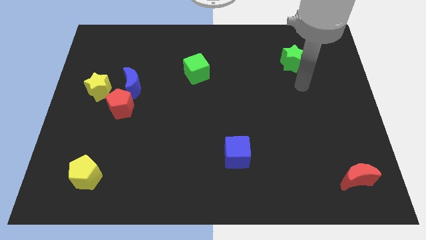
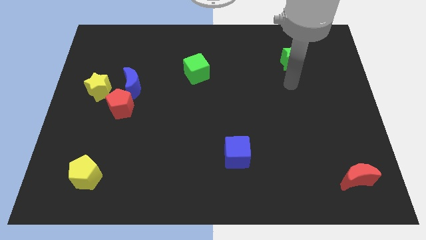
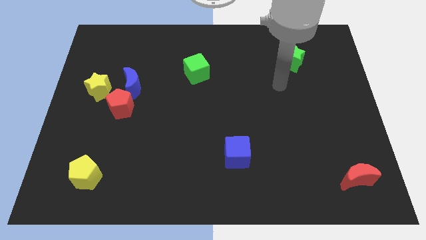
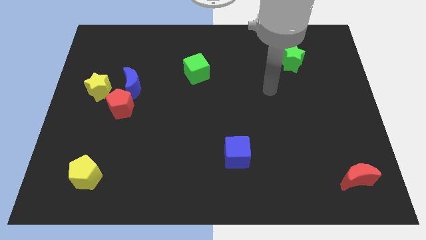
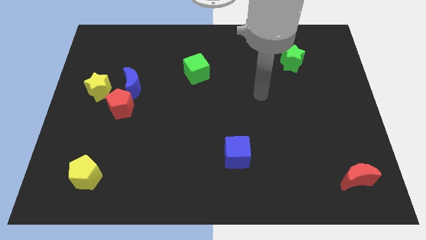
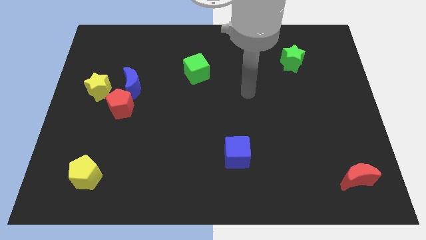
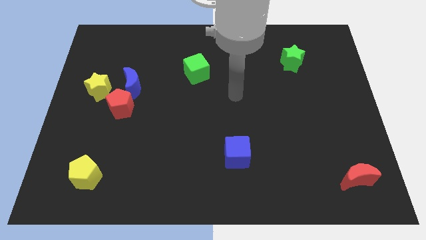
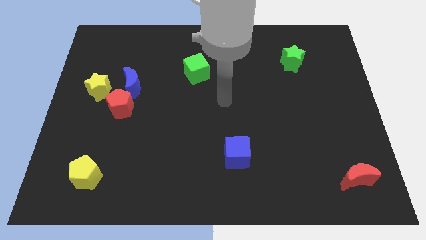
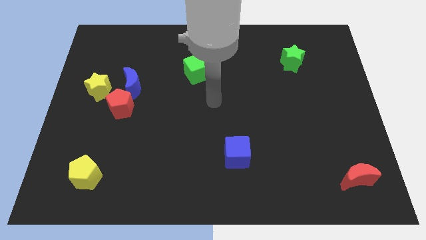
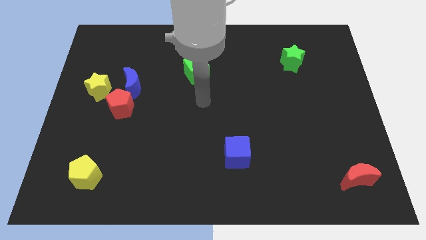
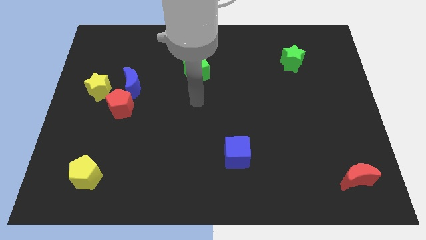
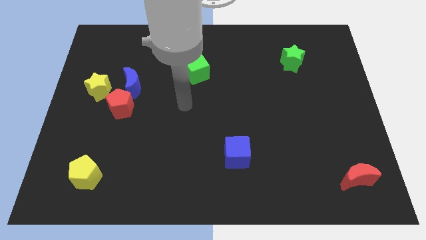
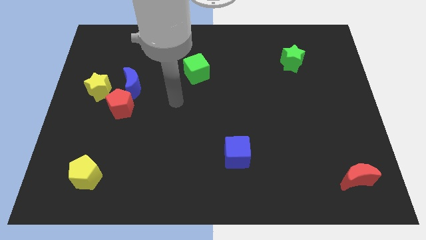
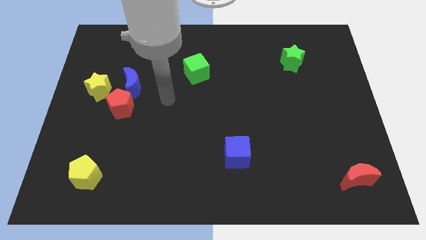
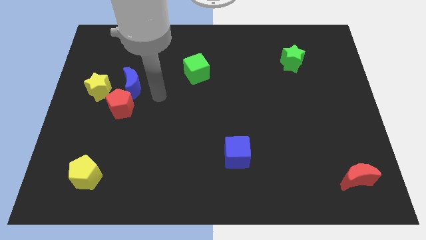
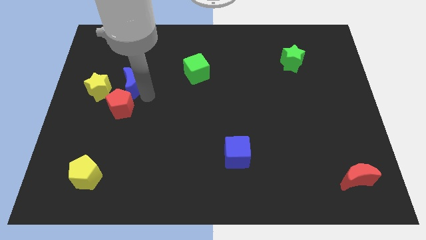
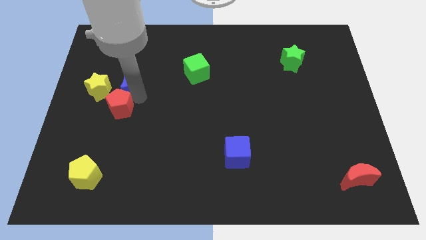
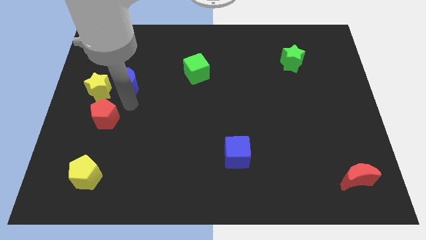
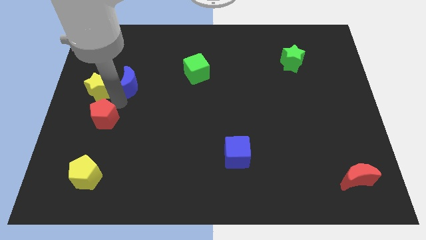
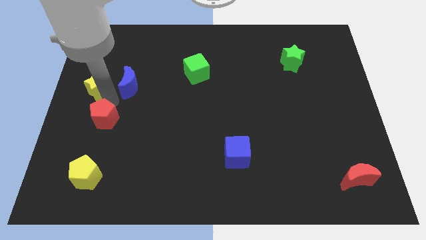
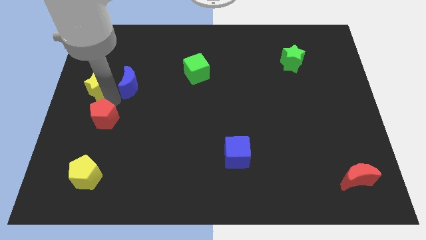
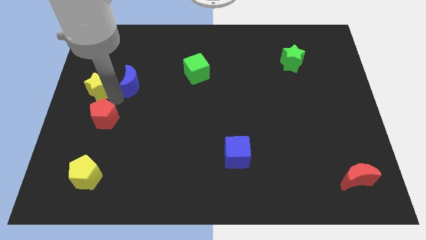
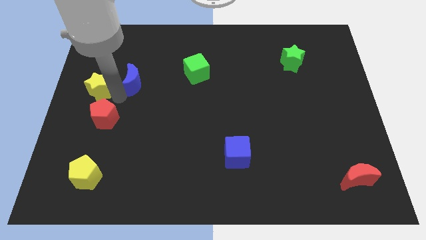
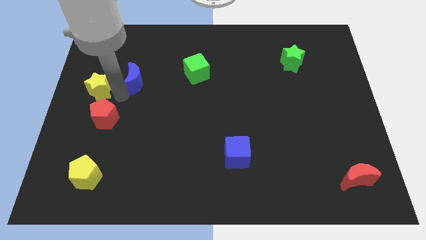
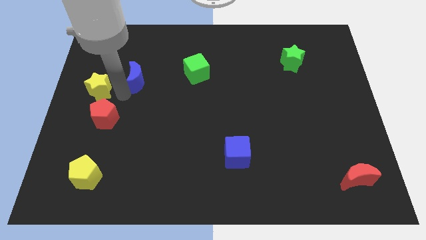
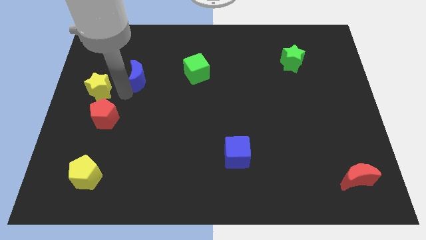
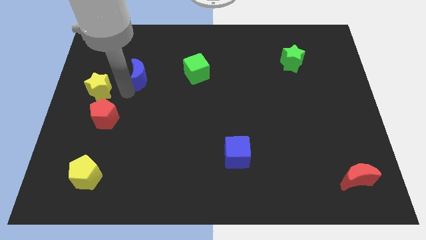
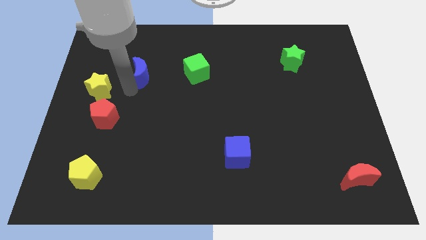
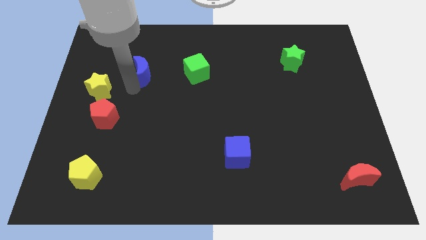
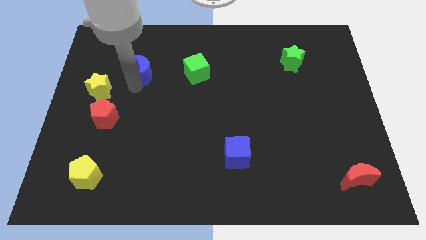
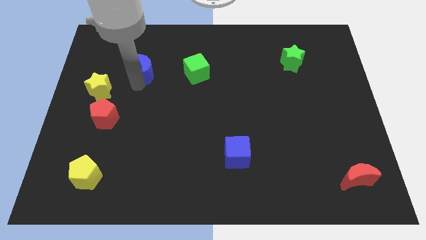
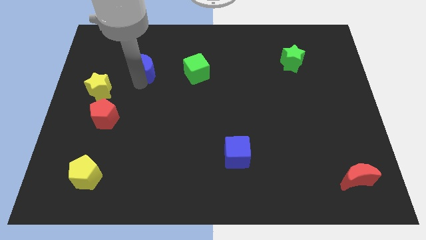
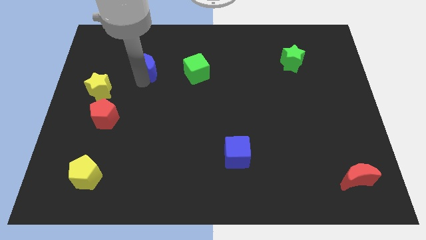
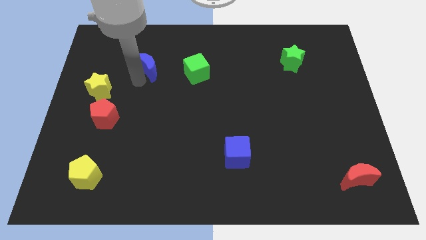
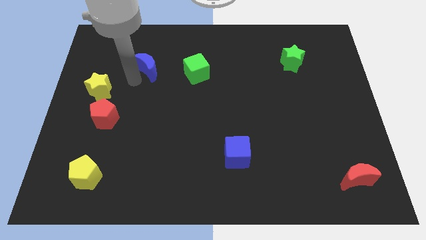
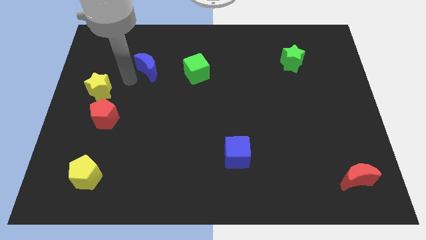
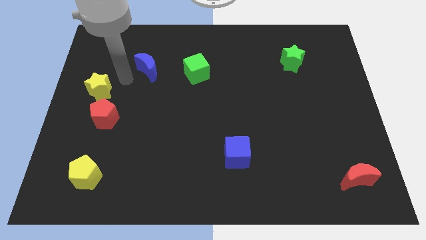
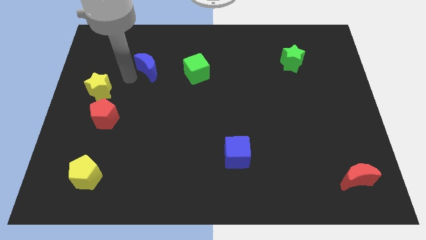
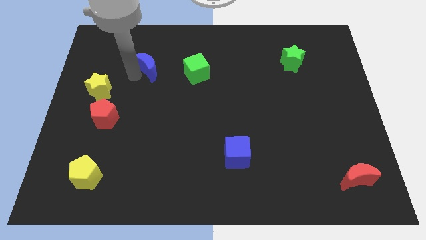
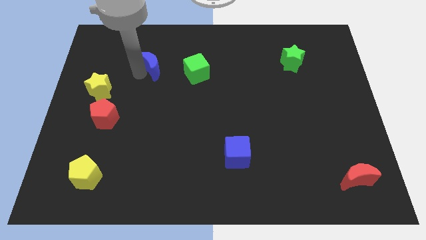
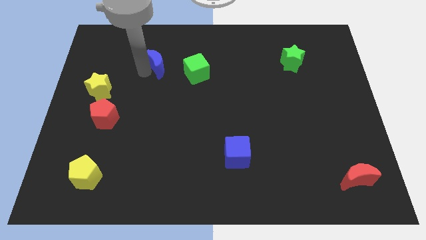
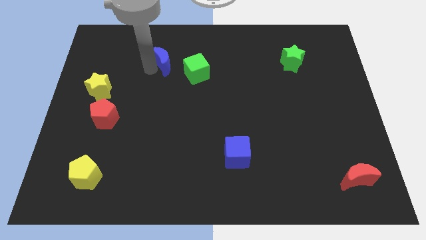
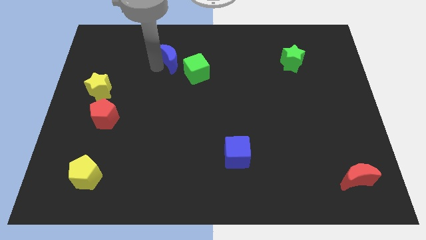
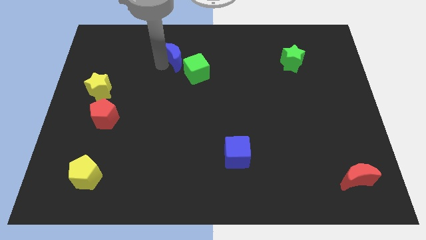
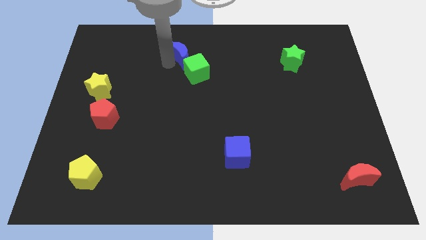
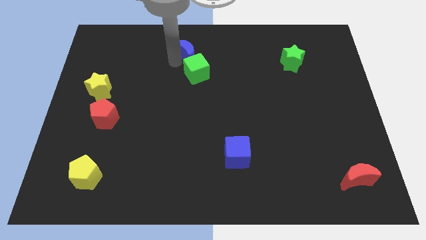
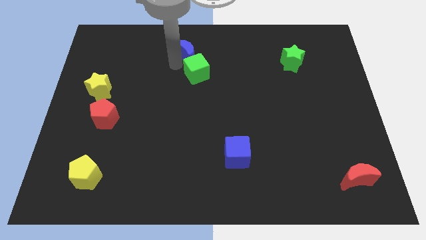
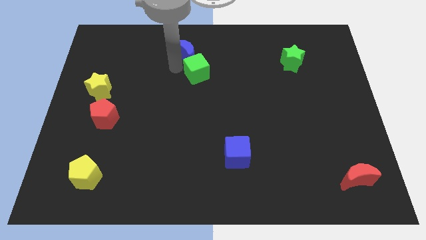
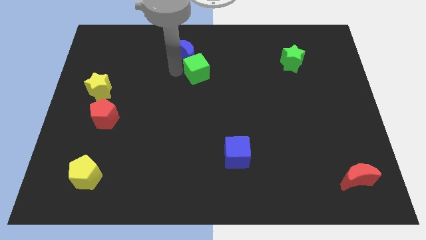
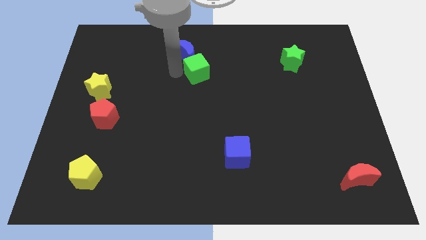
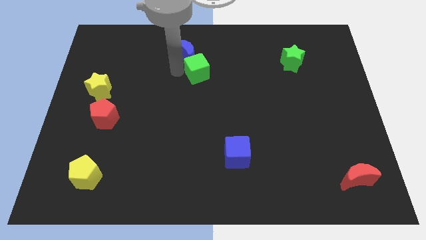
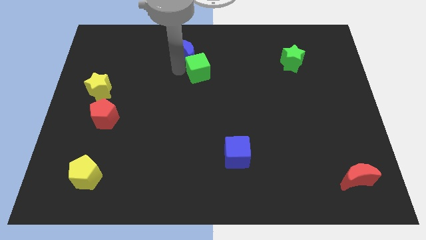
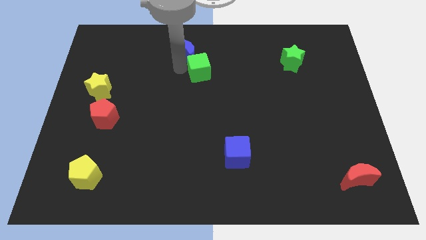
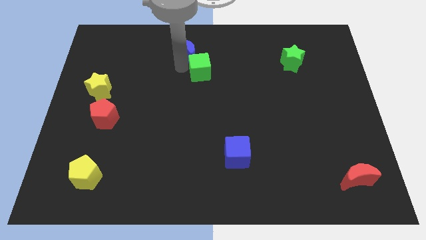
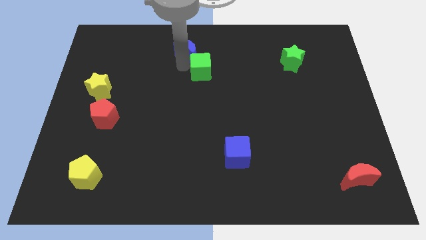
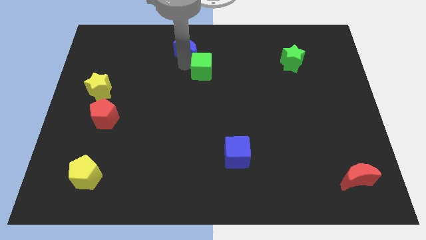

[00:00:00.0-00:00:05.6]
move the blue moon to the towards your base

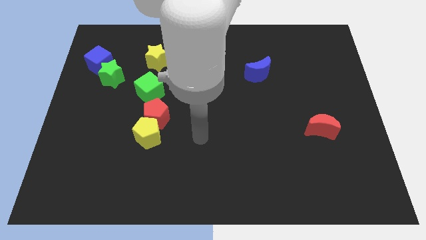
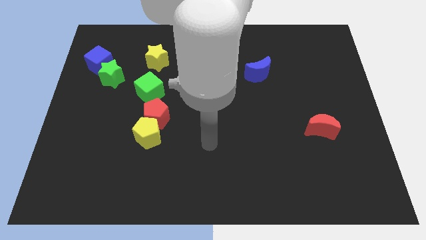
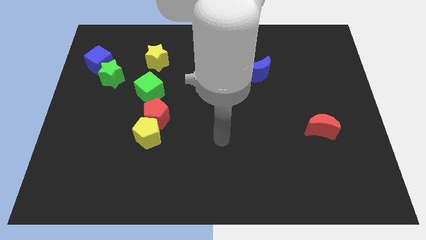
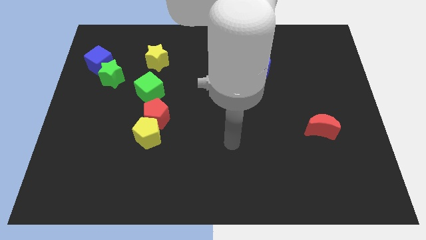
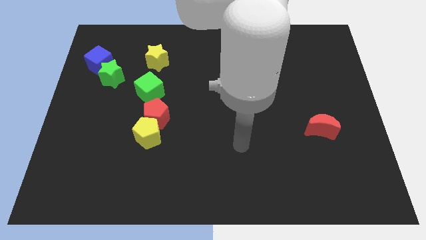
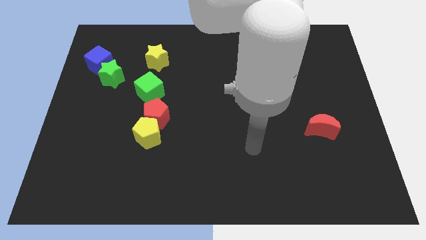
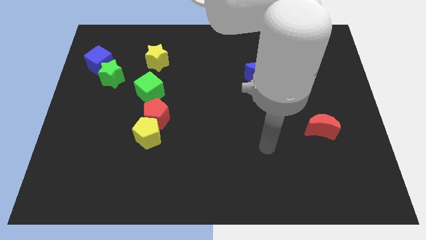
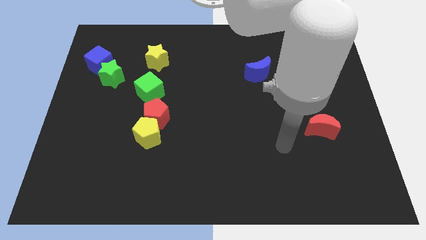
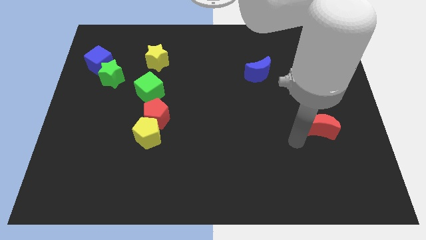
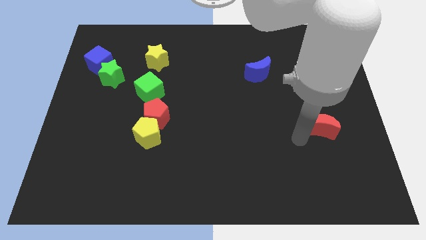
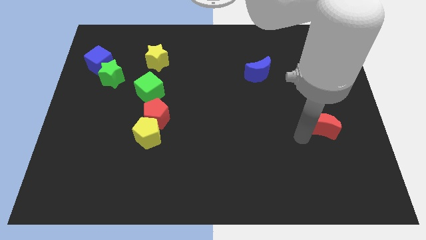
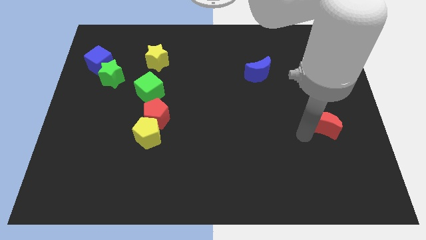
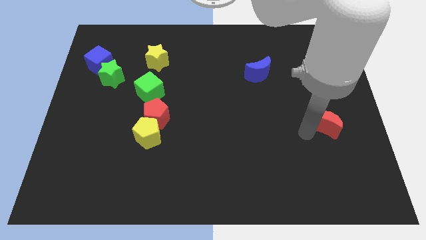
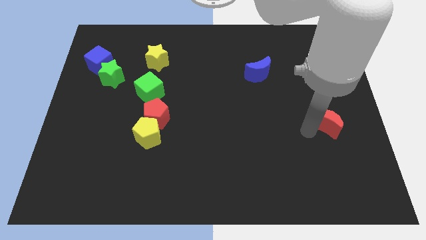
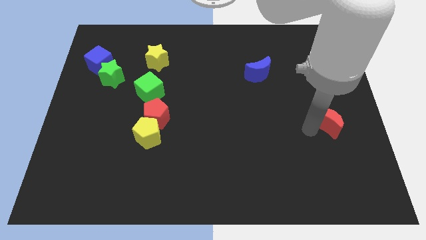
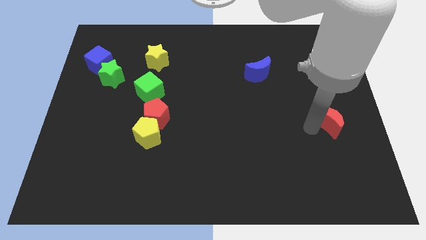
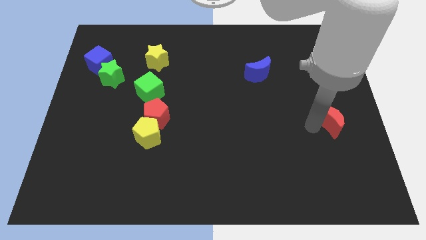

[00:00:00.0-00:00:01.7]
push the red moon to the center right
